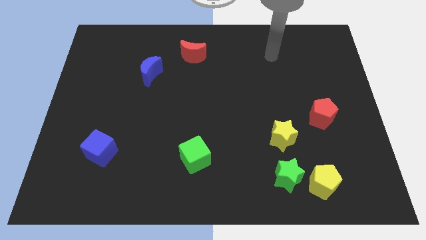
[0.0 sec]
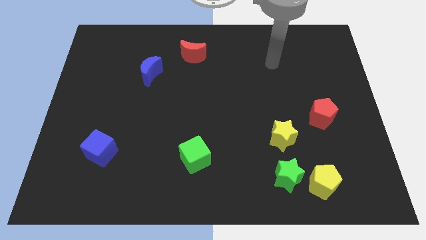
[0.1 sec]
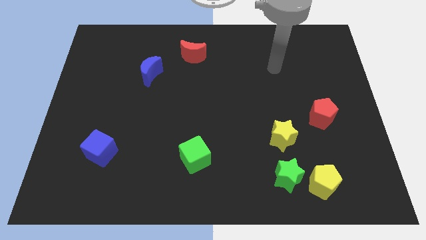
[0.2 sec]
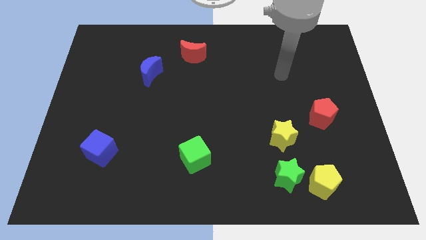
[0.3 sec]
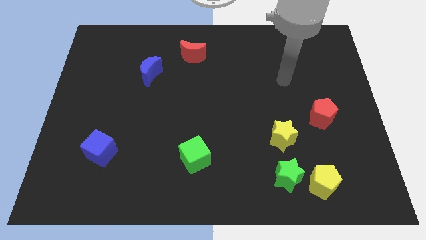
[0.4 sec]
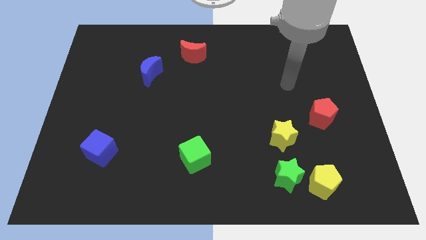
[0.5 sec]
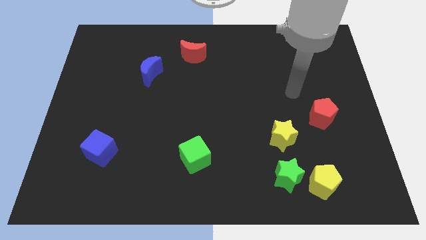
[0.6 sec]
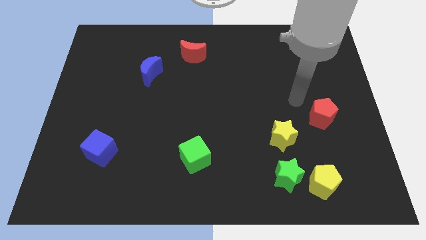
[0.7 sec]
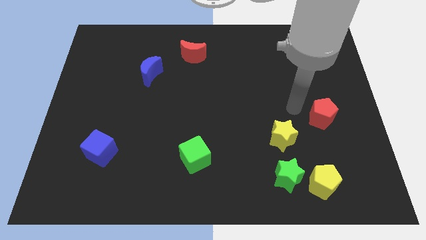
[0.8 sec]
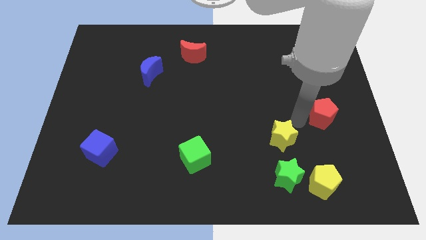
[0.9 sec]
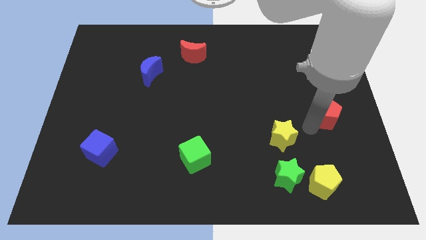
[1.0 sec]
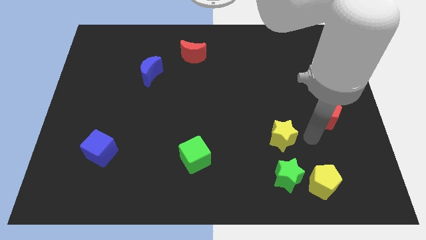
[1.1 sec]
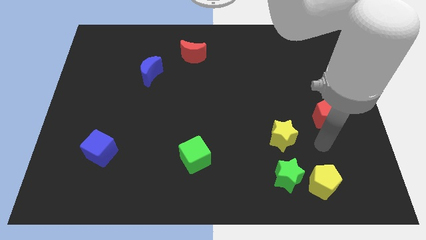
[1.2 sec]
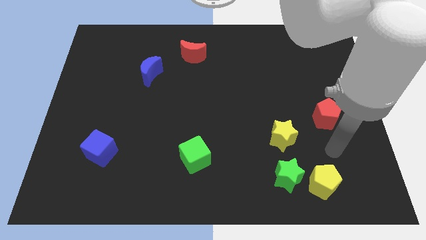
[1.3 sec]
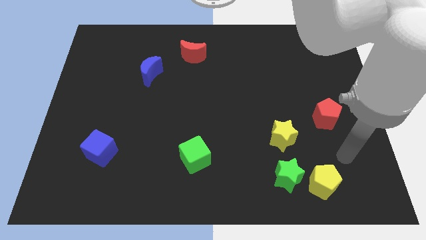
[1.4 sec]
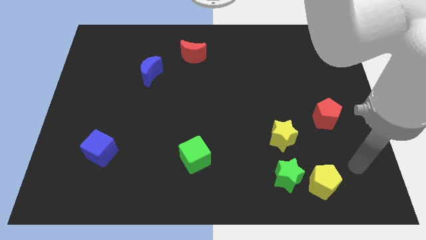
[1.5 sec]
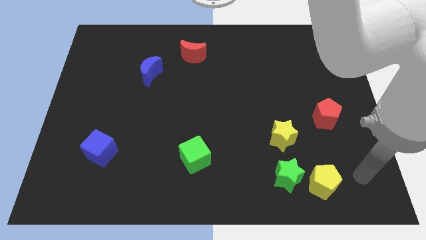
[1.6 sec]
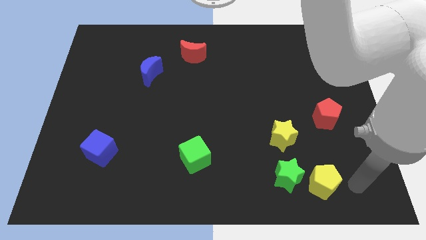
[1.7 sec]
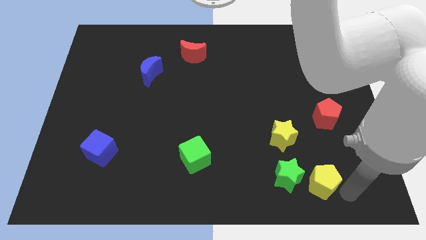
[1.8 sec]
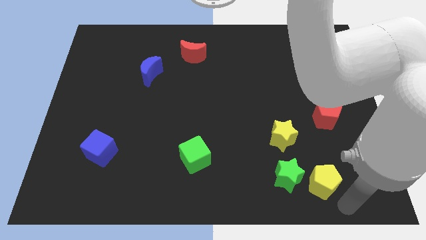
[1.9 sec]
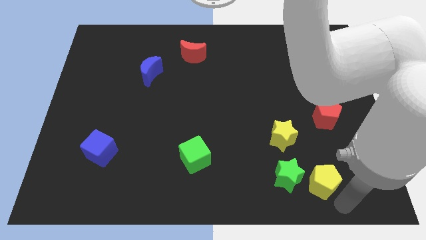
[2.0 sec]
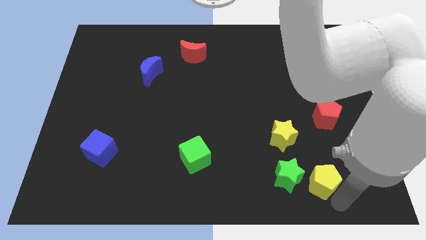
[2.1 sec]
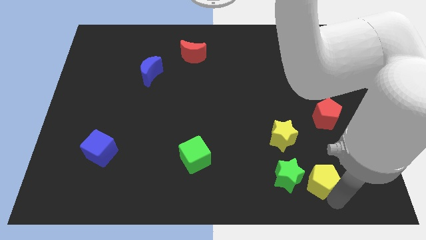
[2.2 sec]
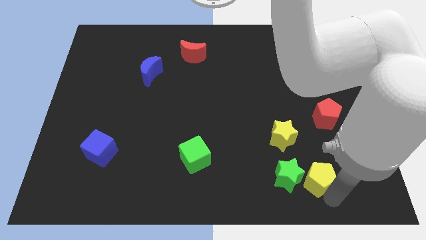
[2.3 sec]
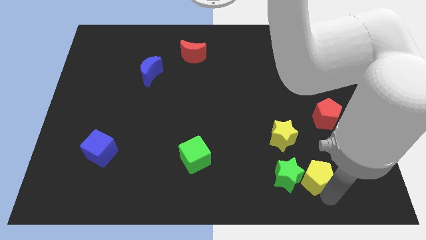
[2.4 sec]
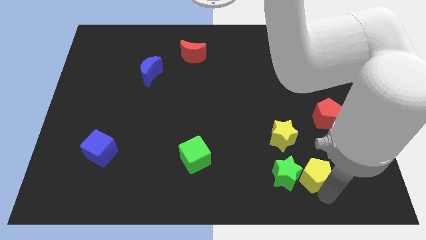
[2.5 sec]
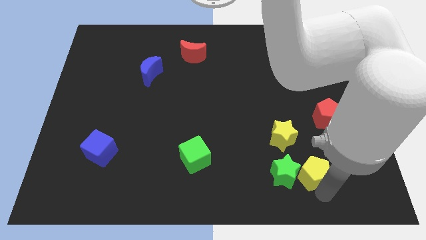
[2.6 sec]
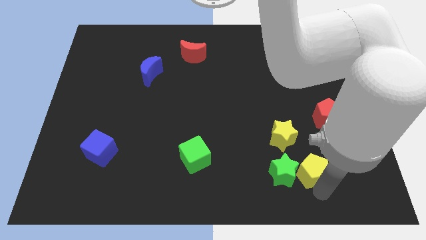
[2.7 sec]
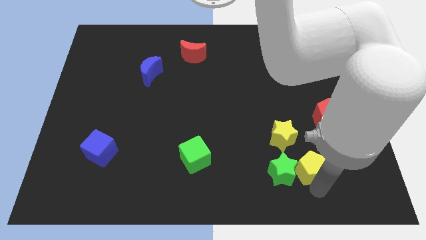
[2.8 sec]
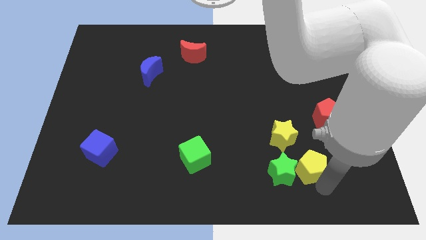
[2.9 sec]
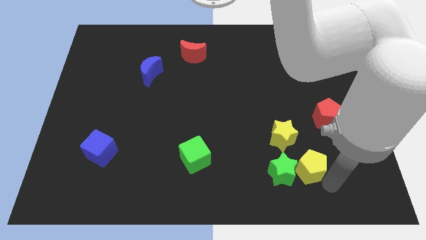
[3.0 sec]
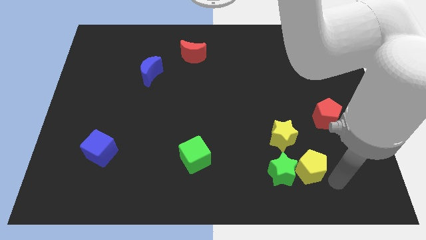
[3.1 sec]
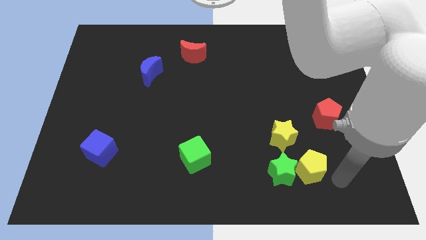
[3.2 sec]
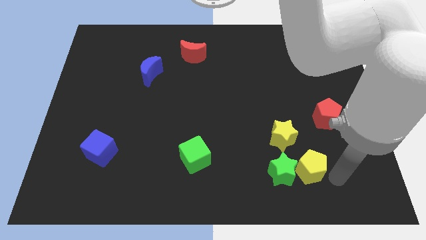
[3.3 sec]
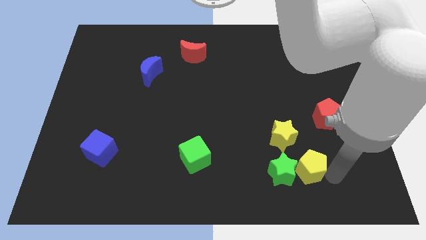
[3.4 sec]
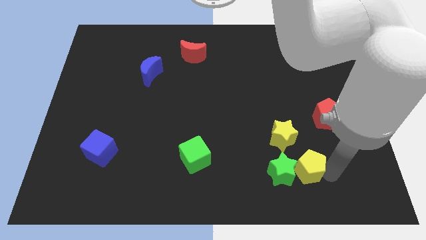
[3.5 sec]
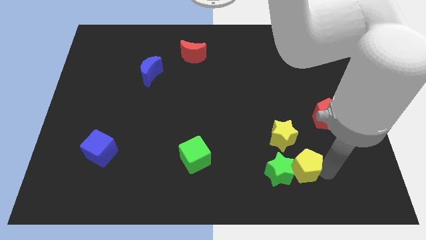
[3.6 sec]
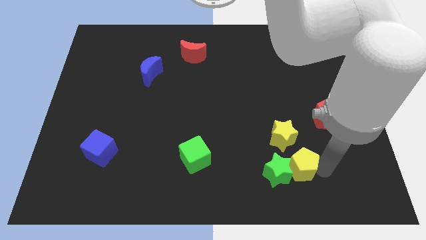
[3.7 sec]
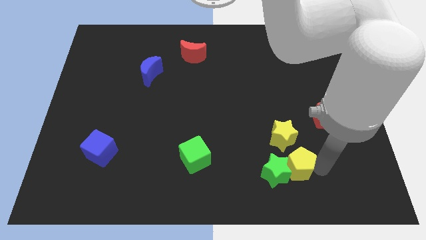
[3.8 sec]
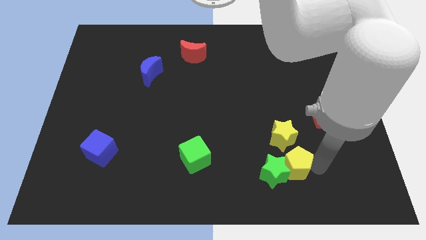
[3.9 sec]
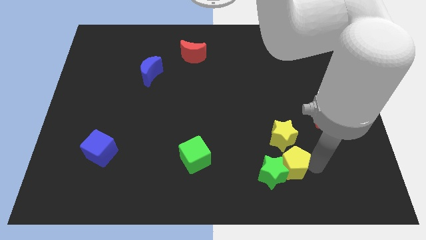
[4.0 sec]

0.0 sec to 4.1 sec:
move the yellow pentagon diagonally upwards and to the left slightly

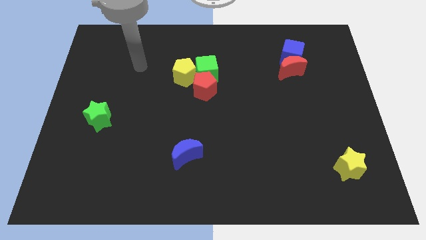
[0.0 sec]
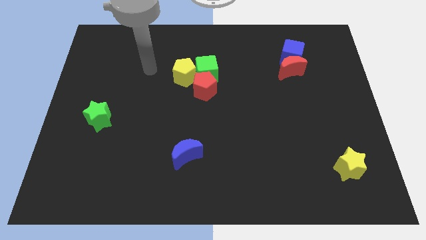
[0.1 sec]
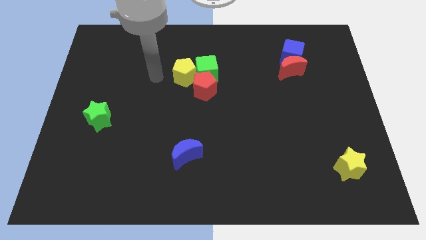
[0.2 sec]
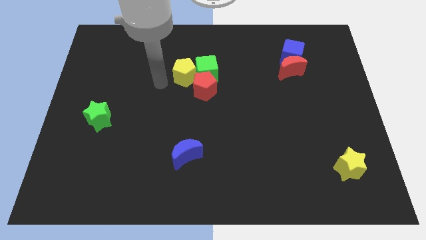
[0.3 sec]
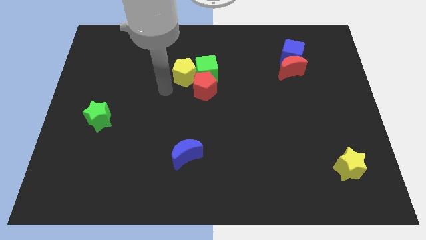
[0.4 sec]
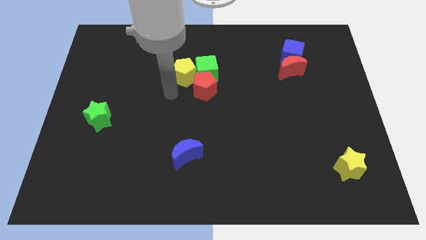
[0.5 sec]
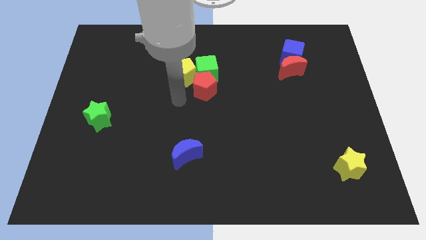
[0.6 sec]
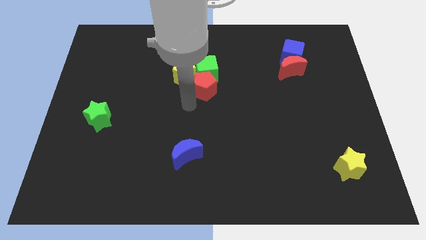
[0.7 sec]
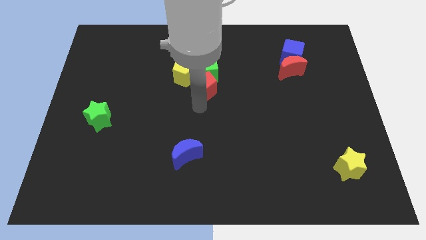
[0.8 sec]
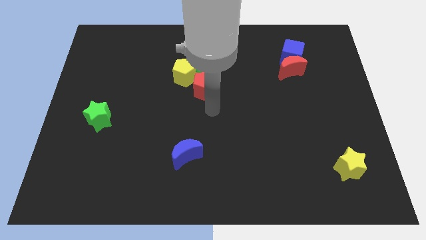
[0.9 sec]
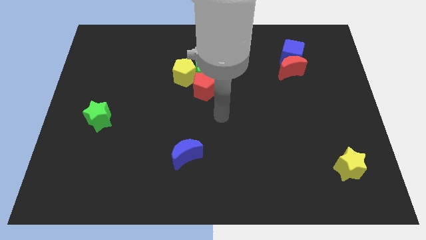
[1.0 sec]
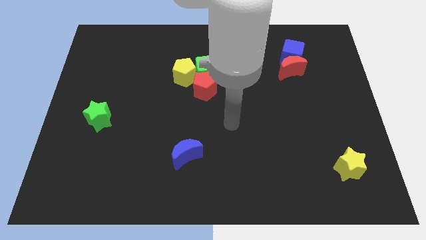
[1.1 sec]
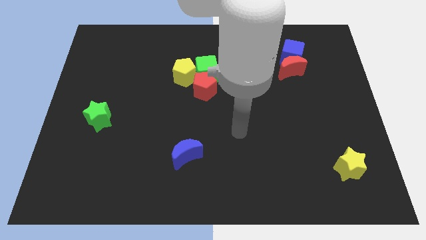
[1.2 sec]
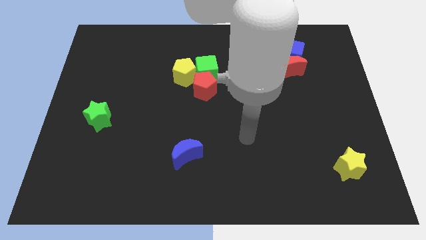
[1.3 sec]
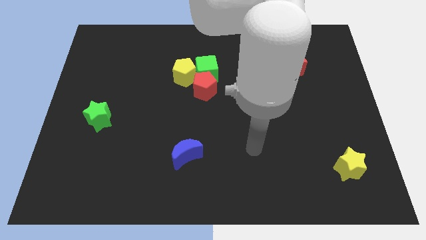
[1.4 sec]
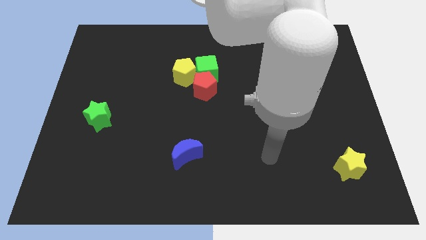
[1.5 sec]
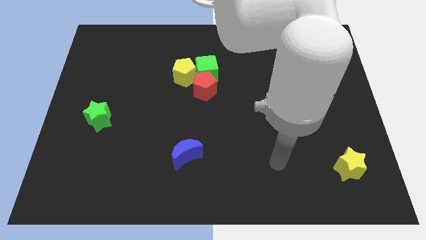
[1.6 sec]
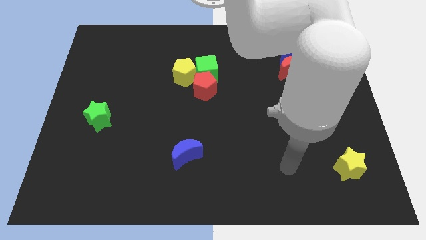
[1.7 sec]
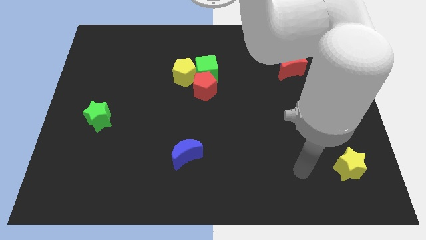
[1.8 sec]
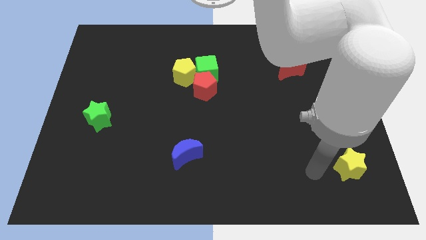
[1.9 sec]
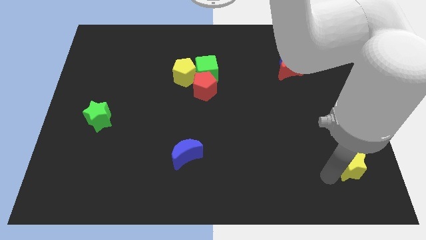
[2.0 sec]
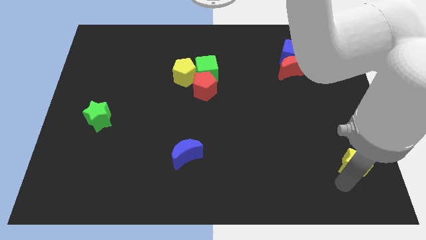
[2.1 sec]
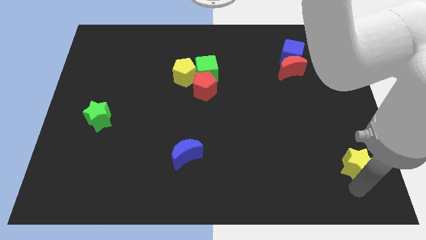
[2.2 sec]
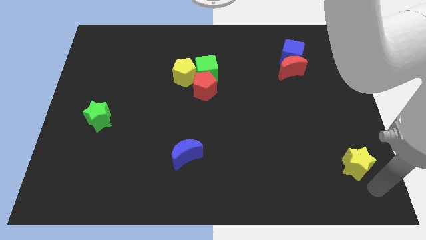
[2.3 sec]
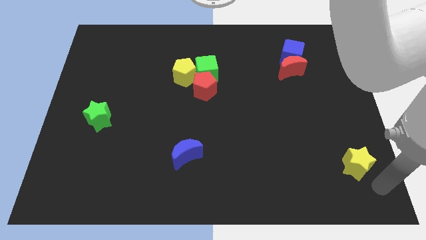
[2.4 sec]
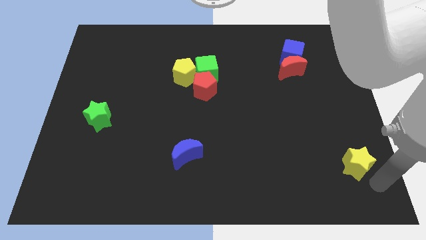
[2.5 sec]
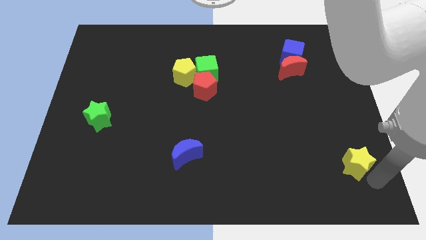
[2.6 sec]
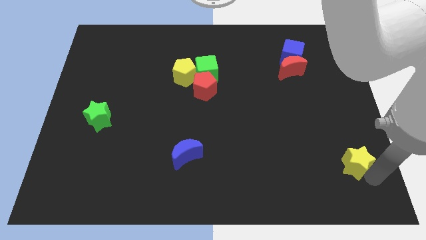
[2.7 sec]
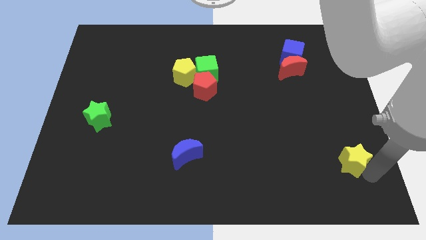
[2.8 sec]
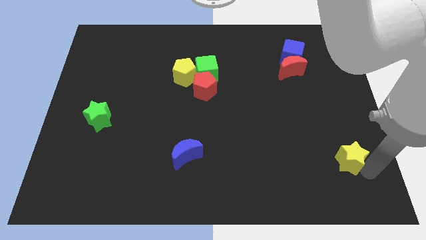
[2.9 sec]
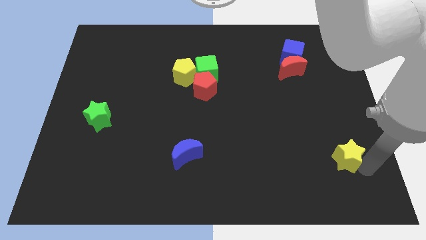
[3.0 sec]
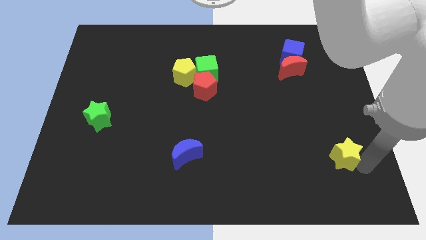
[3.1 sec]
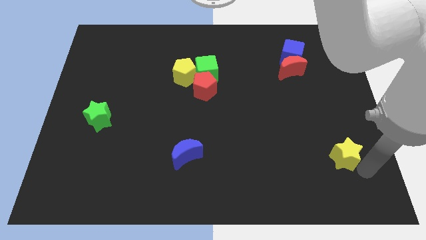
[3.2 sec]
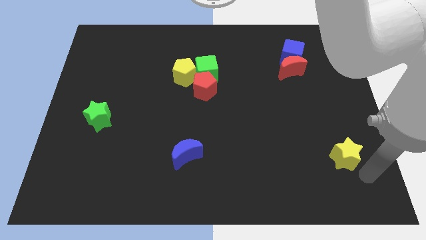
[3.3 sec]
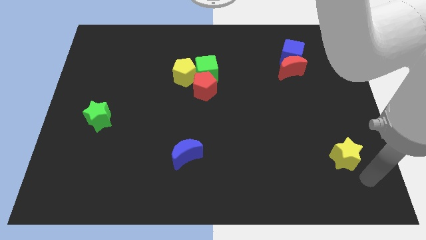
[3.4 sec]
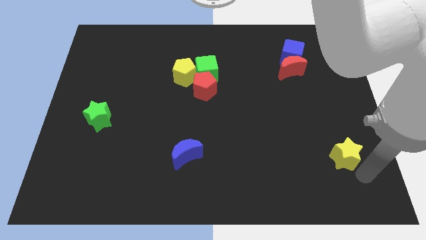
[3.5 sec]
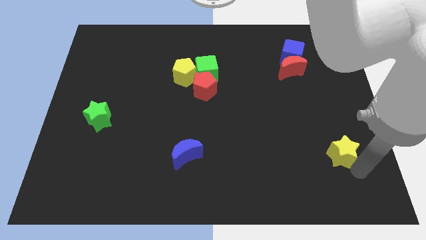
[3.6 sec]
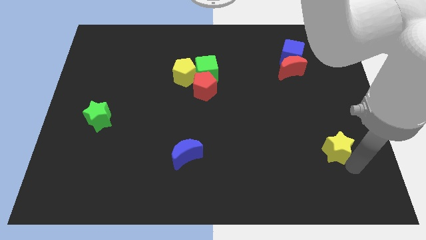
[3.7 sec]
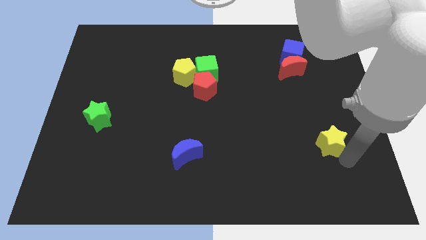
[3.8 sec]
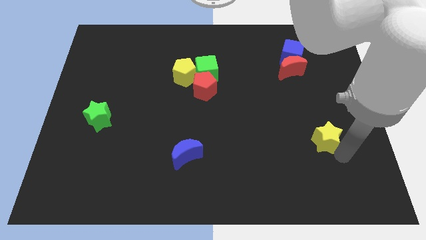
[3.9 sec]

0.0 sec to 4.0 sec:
slide the yellow star a little bit up and to the left

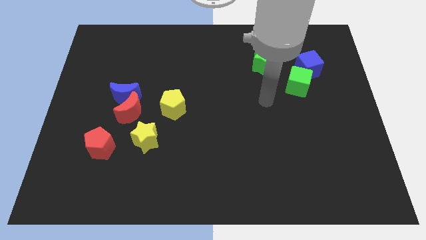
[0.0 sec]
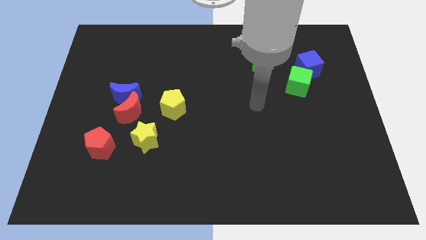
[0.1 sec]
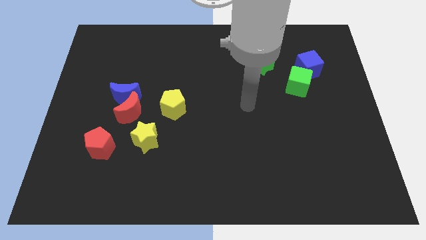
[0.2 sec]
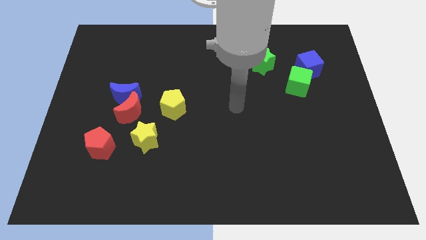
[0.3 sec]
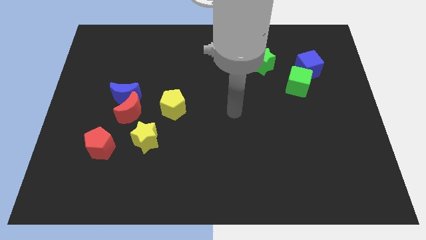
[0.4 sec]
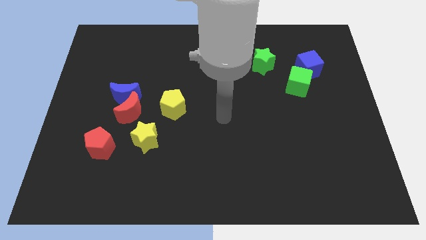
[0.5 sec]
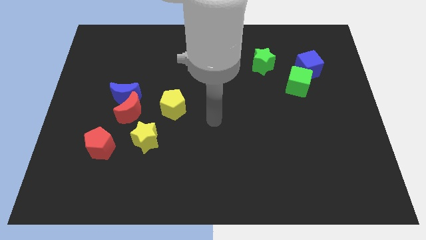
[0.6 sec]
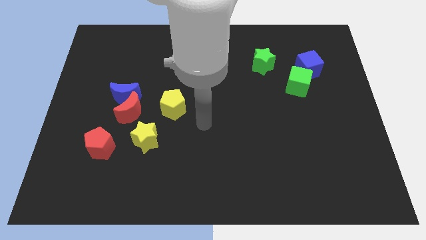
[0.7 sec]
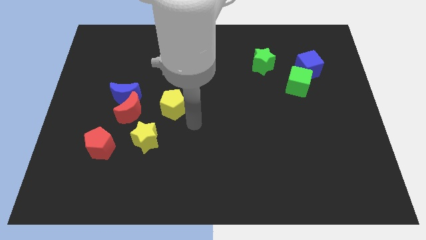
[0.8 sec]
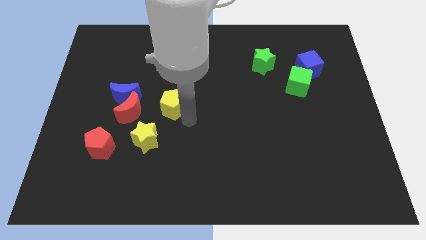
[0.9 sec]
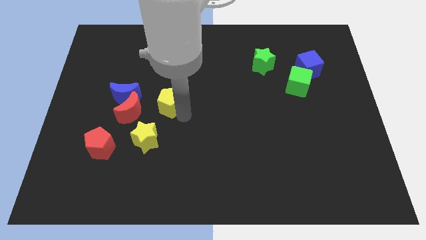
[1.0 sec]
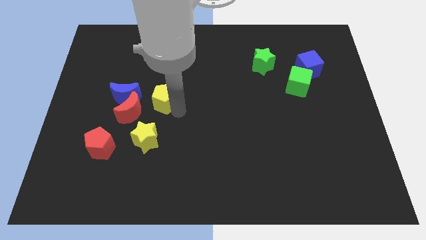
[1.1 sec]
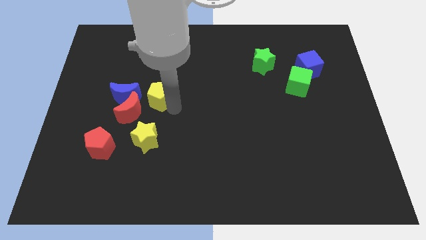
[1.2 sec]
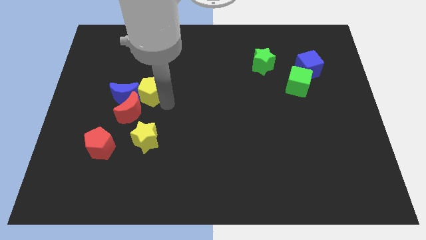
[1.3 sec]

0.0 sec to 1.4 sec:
move the yellow pentagon up and then left a little bit
